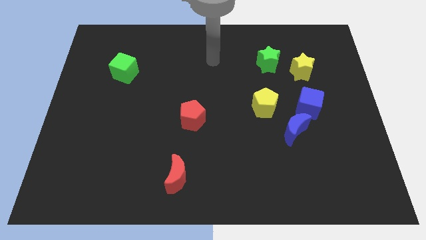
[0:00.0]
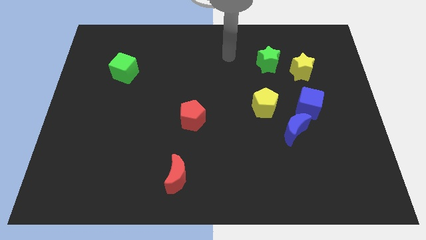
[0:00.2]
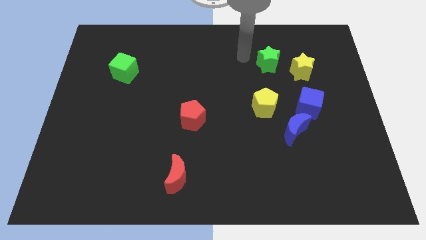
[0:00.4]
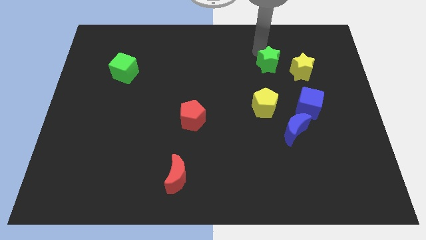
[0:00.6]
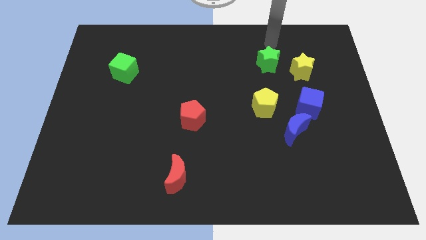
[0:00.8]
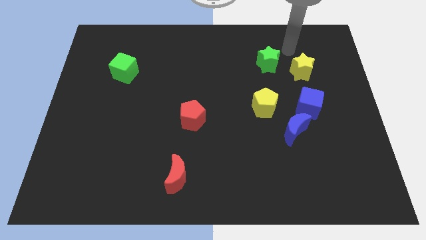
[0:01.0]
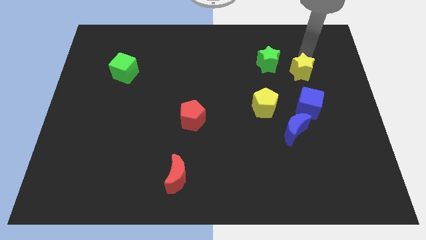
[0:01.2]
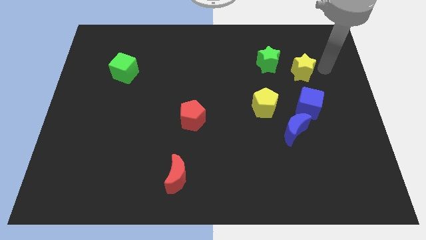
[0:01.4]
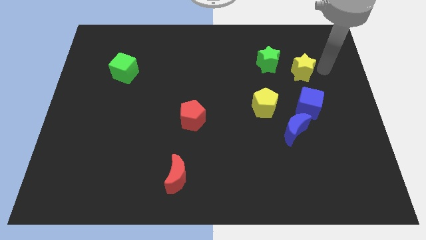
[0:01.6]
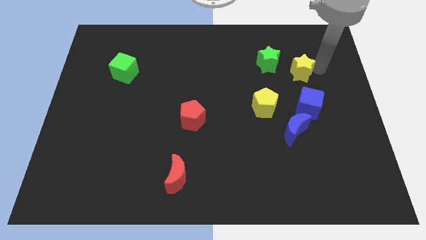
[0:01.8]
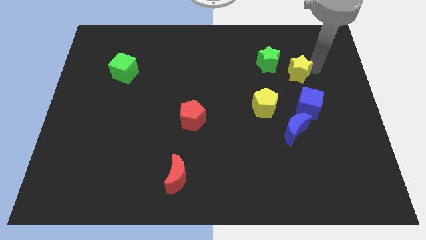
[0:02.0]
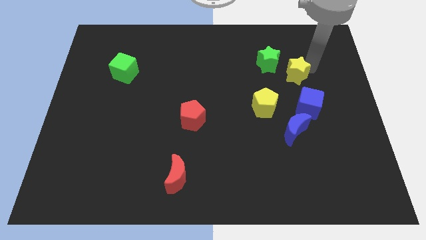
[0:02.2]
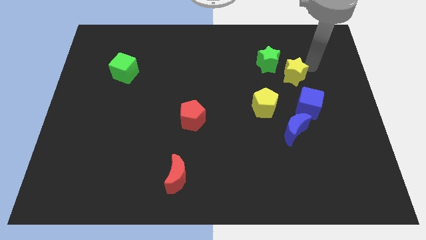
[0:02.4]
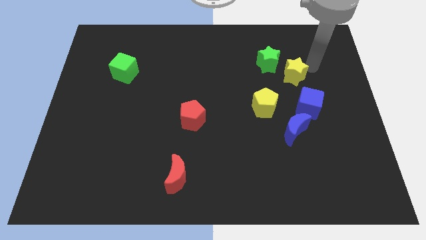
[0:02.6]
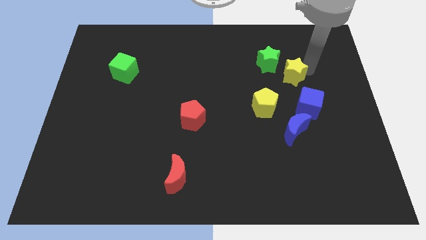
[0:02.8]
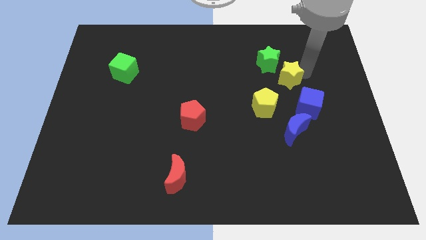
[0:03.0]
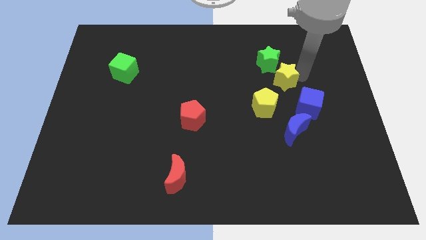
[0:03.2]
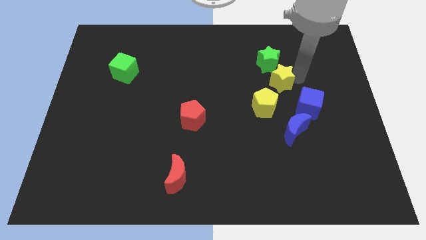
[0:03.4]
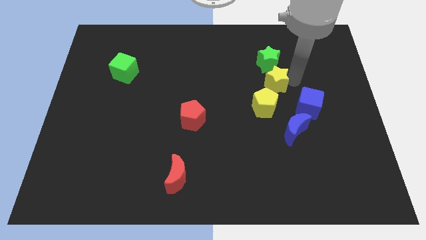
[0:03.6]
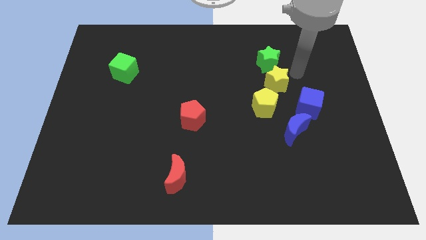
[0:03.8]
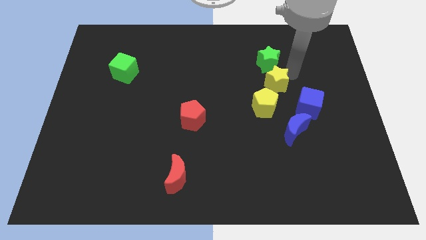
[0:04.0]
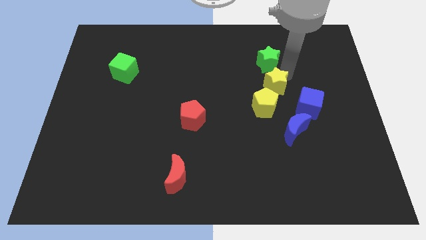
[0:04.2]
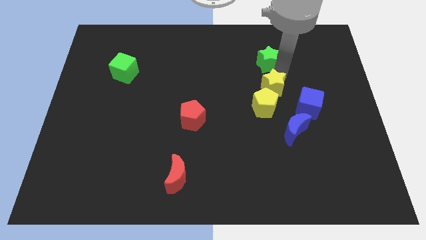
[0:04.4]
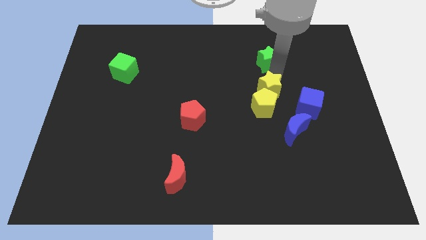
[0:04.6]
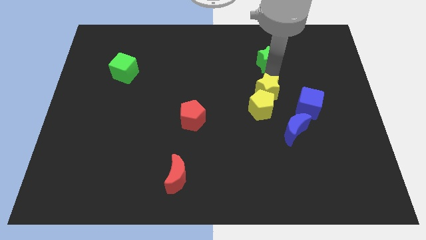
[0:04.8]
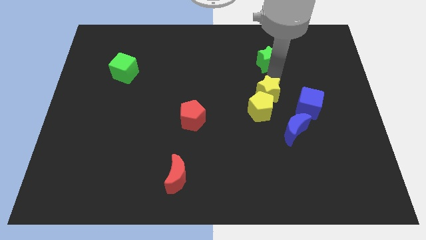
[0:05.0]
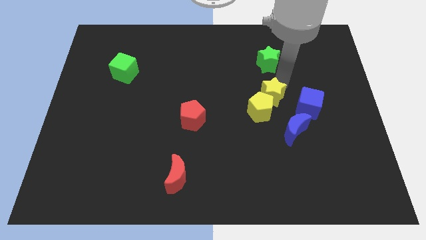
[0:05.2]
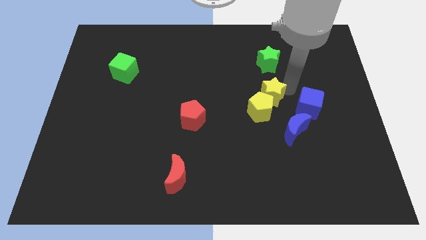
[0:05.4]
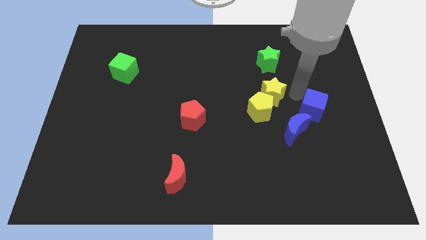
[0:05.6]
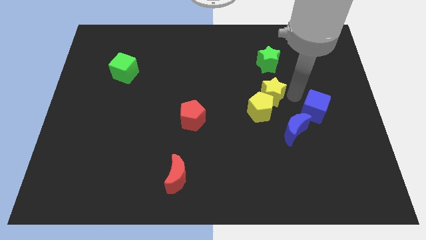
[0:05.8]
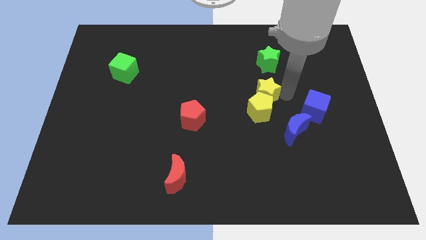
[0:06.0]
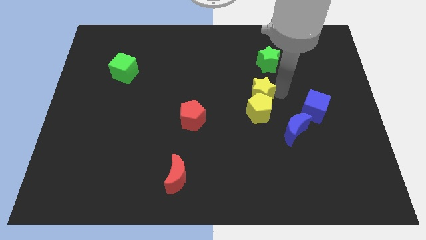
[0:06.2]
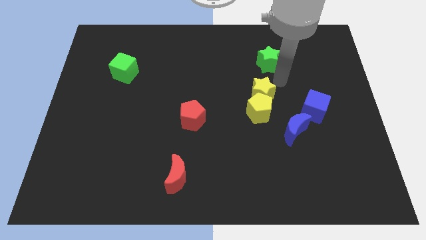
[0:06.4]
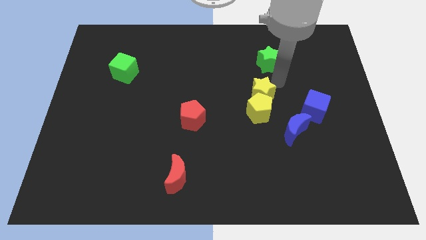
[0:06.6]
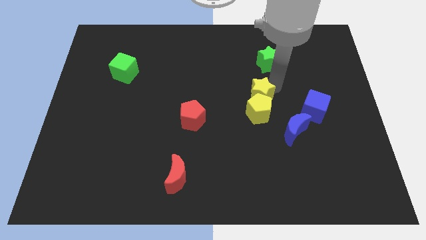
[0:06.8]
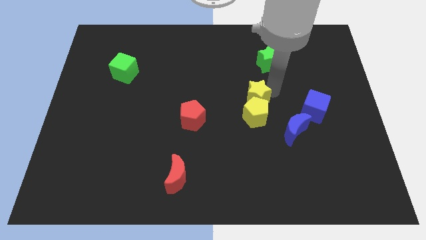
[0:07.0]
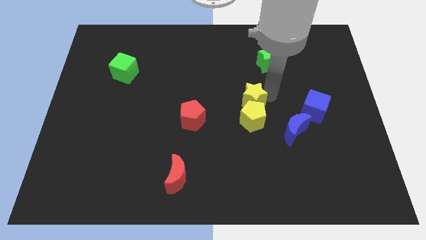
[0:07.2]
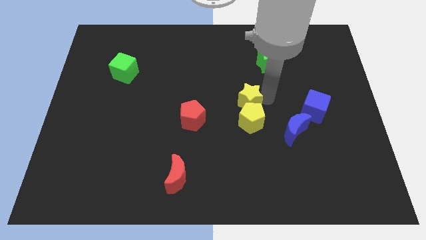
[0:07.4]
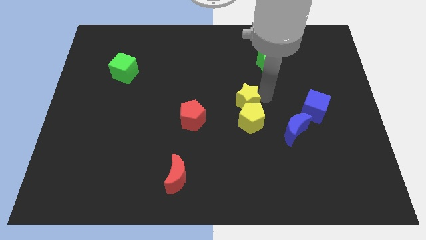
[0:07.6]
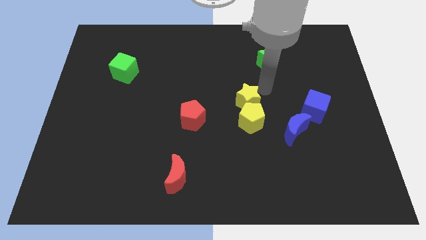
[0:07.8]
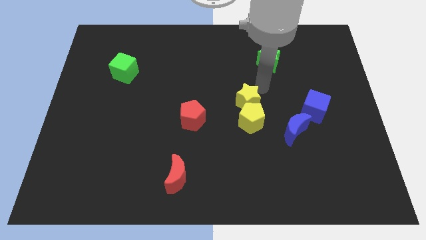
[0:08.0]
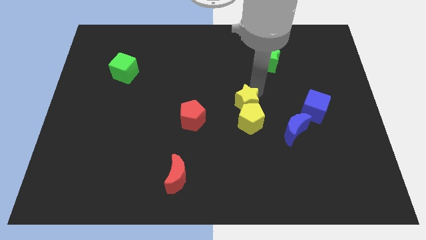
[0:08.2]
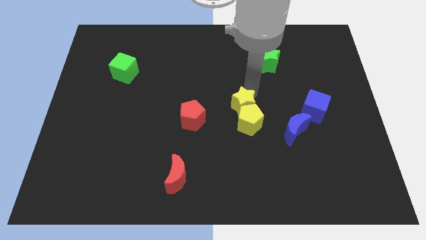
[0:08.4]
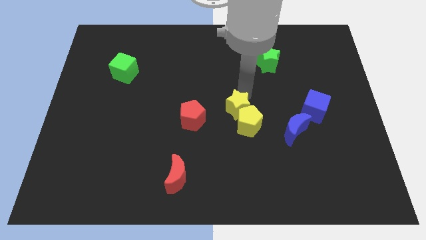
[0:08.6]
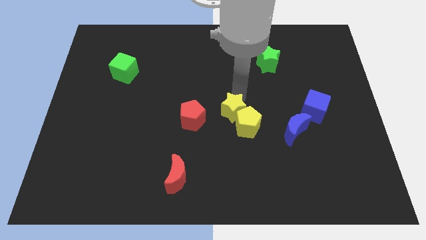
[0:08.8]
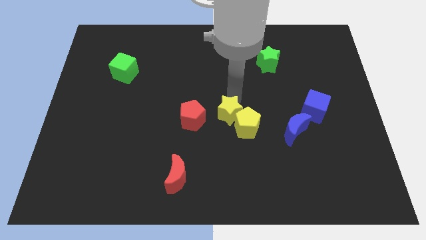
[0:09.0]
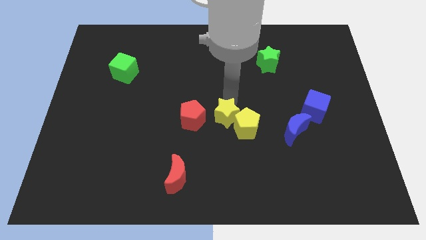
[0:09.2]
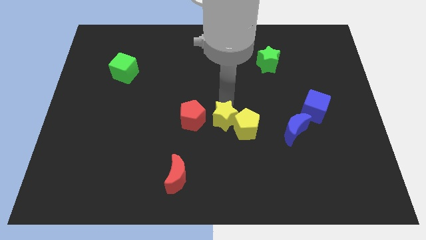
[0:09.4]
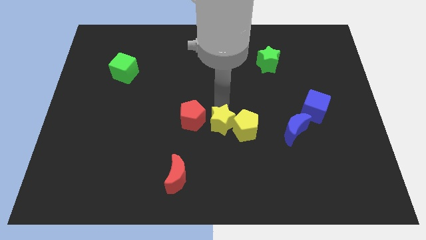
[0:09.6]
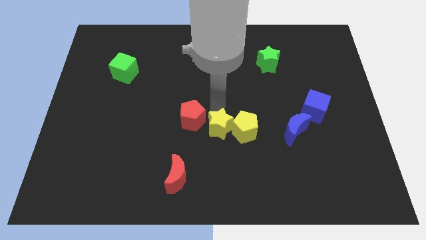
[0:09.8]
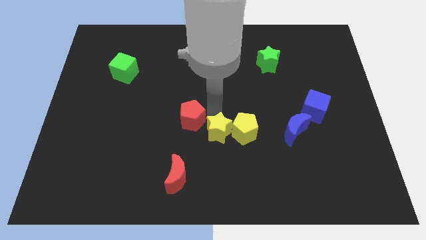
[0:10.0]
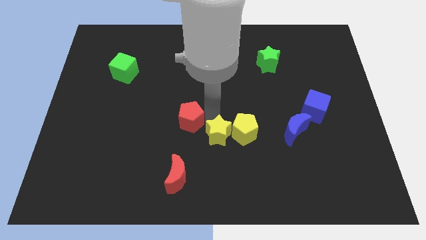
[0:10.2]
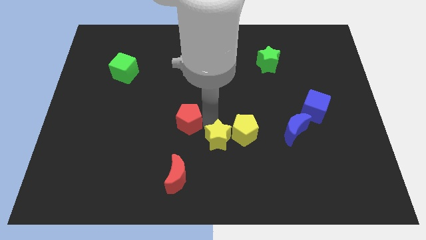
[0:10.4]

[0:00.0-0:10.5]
move the yellow star to the top right side of the red moon

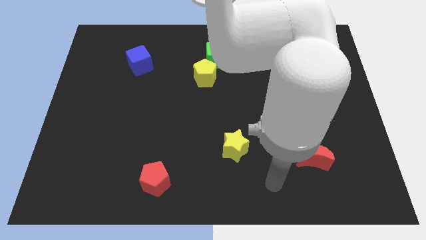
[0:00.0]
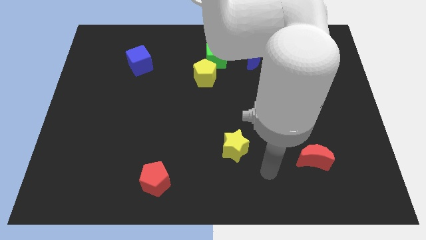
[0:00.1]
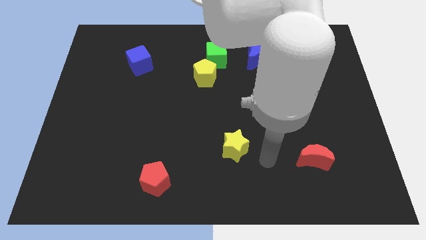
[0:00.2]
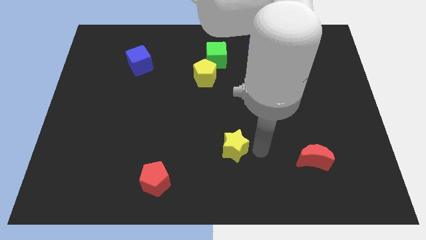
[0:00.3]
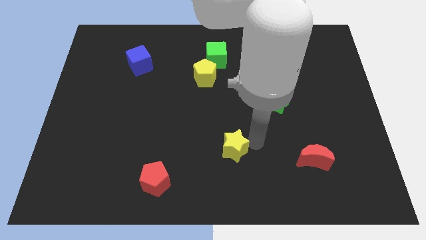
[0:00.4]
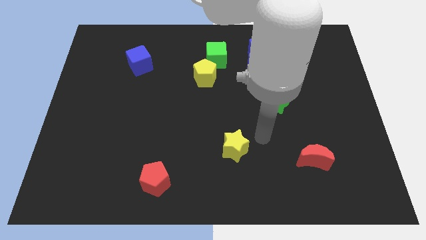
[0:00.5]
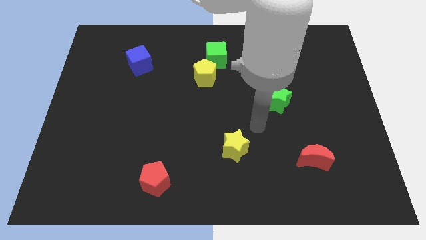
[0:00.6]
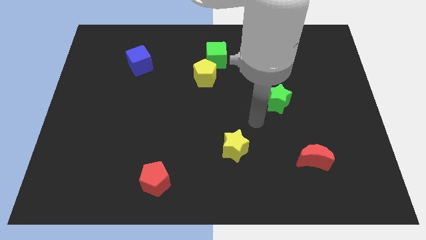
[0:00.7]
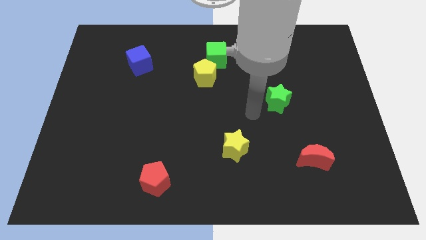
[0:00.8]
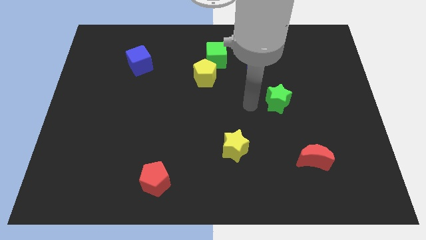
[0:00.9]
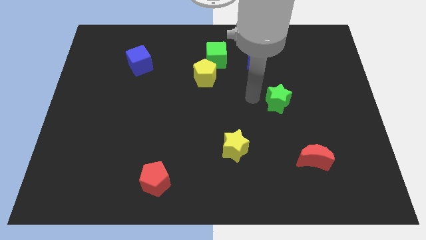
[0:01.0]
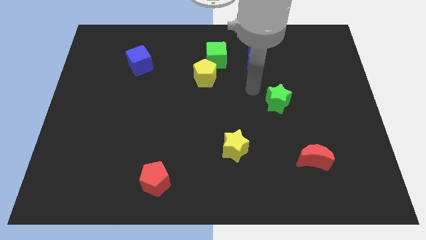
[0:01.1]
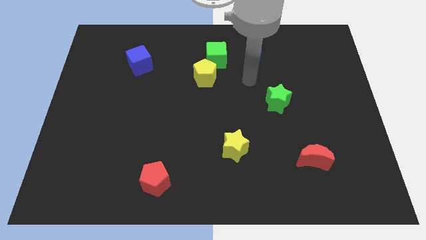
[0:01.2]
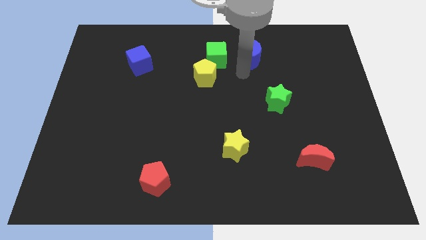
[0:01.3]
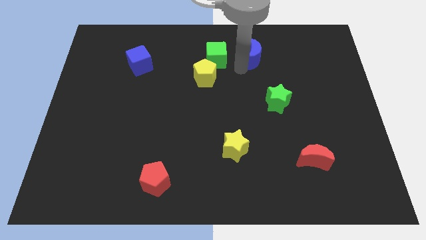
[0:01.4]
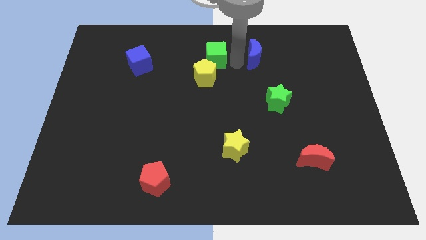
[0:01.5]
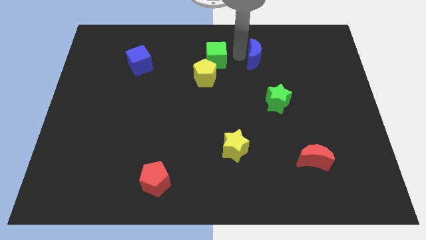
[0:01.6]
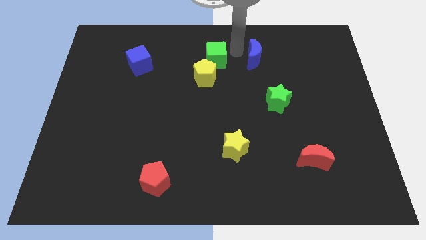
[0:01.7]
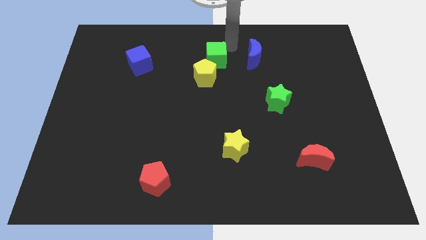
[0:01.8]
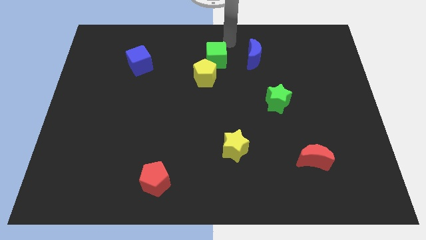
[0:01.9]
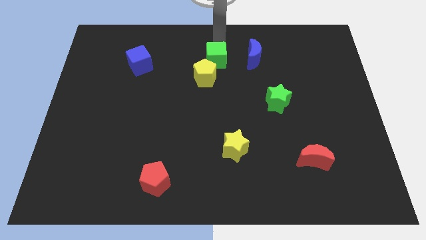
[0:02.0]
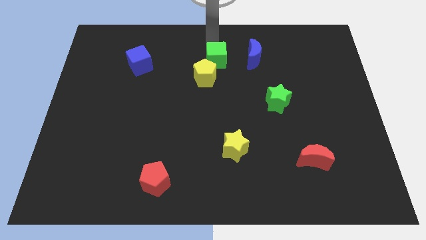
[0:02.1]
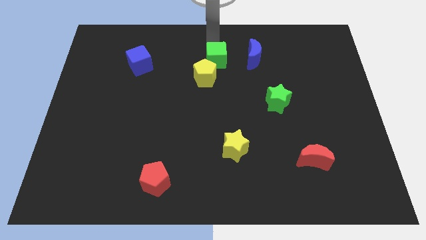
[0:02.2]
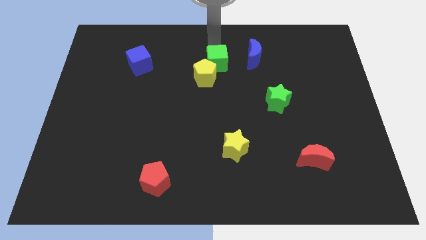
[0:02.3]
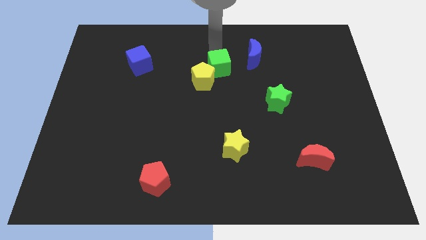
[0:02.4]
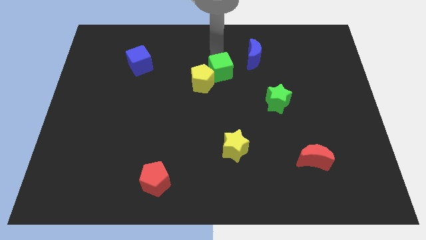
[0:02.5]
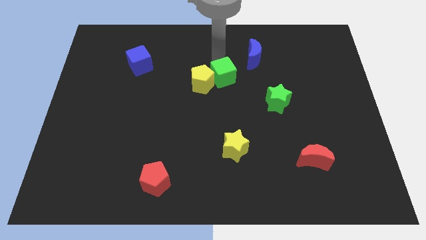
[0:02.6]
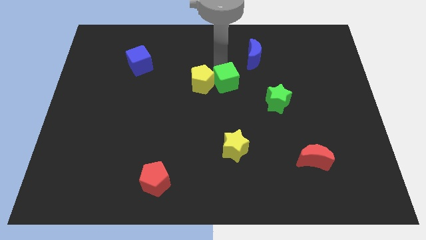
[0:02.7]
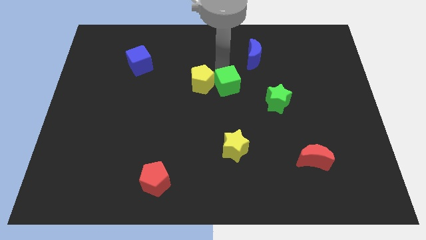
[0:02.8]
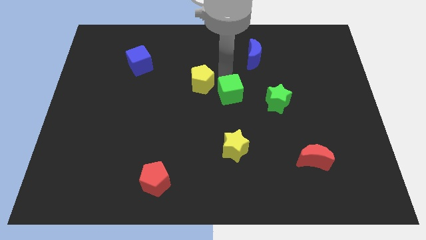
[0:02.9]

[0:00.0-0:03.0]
move the green cube to the top of the yellow star
